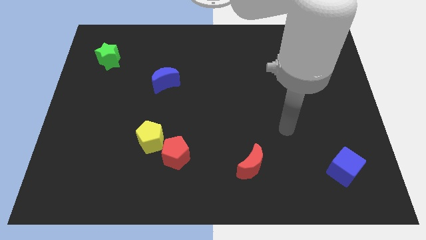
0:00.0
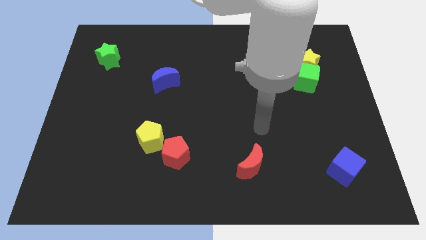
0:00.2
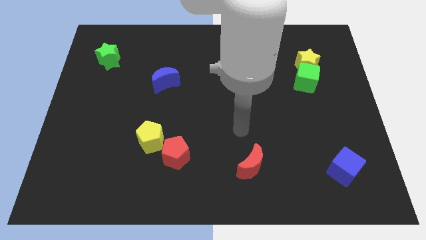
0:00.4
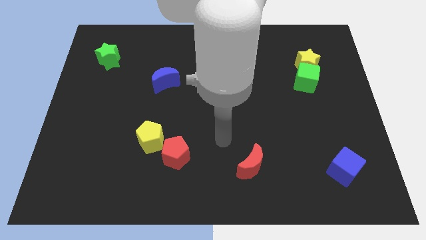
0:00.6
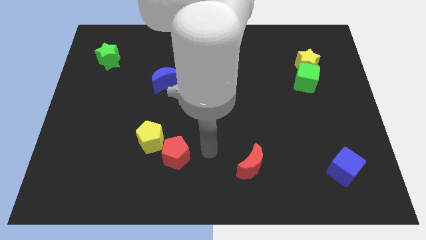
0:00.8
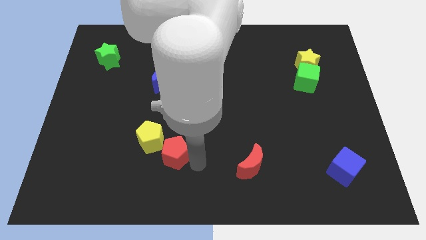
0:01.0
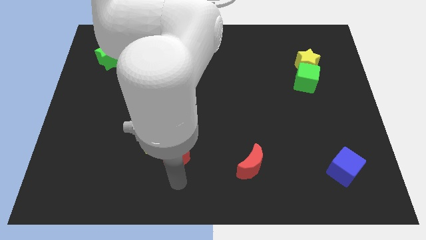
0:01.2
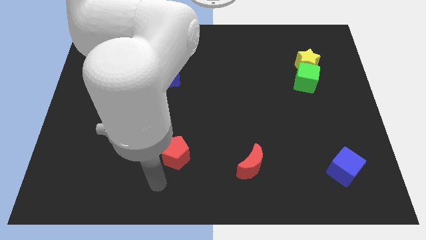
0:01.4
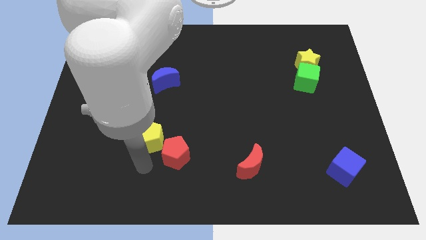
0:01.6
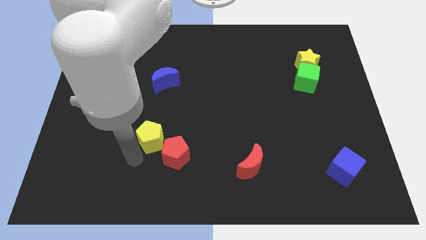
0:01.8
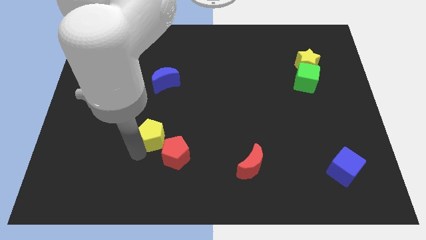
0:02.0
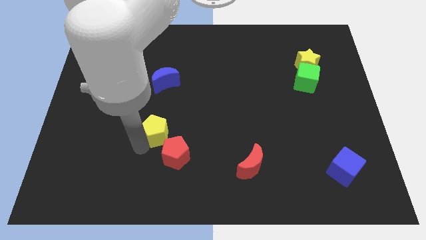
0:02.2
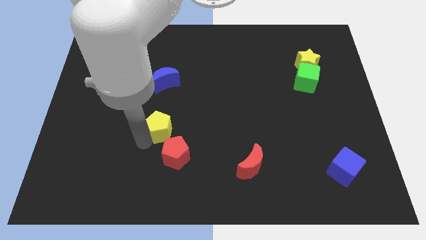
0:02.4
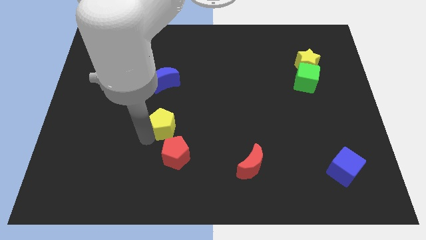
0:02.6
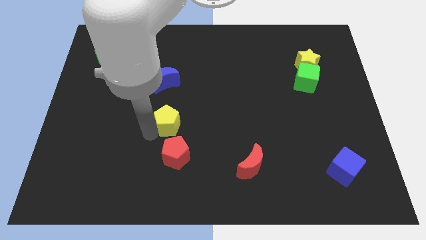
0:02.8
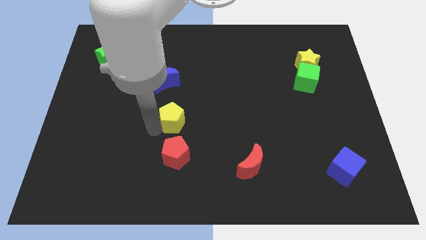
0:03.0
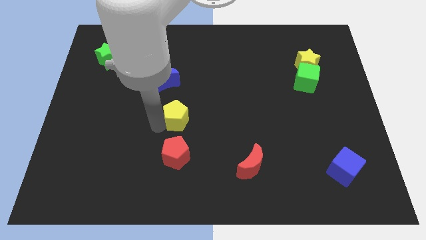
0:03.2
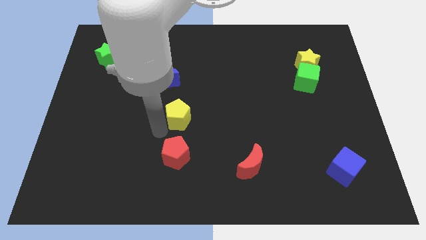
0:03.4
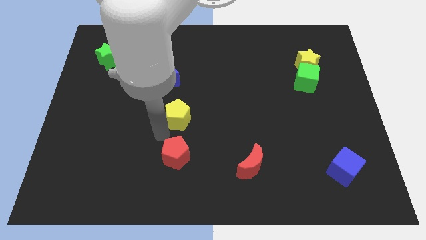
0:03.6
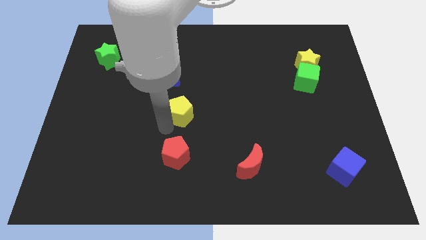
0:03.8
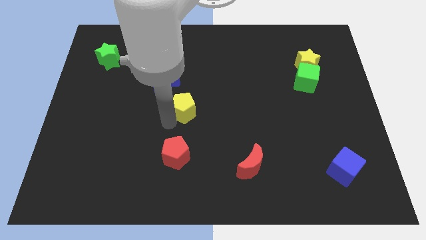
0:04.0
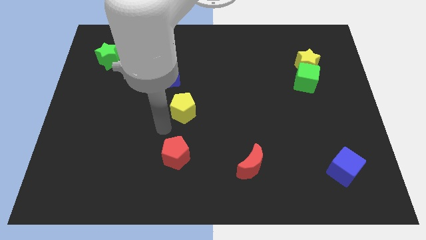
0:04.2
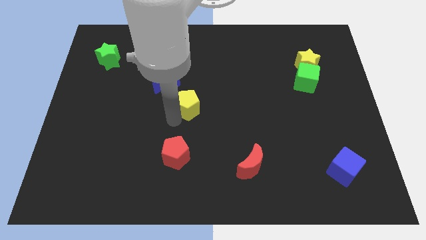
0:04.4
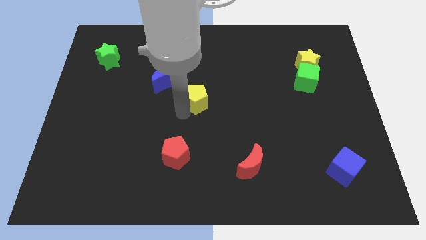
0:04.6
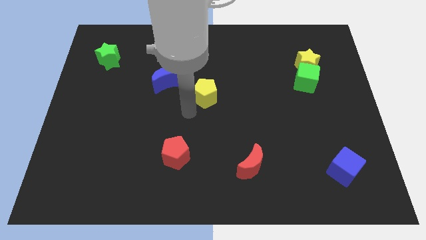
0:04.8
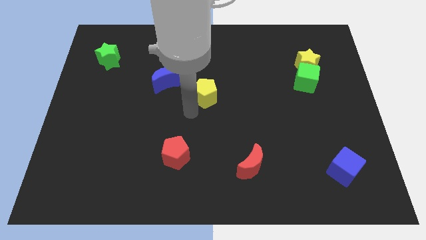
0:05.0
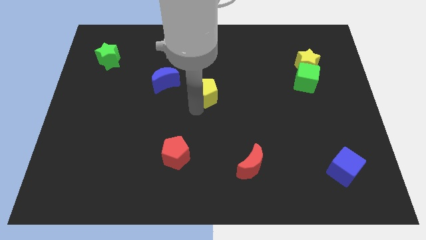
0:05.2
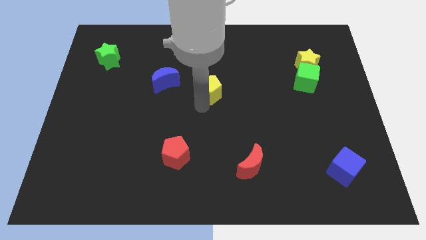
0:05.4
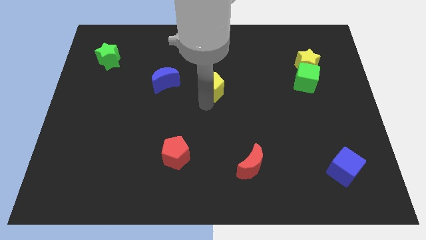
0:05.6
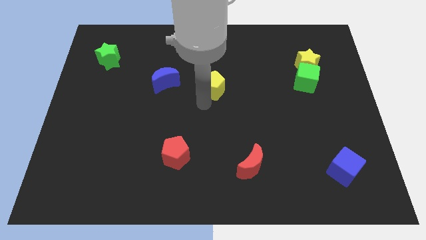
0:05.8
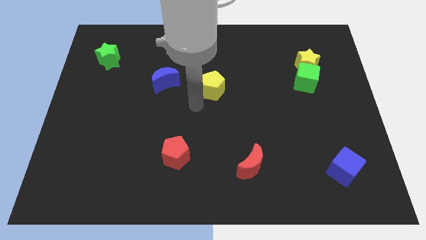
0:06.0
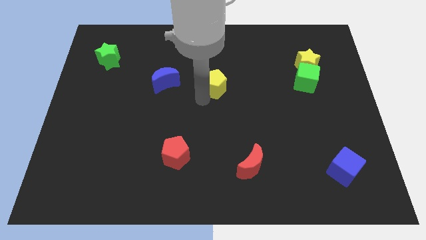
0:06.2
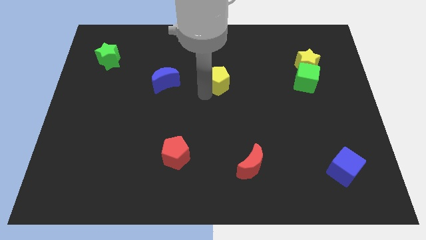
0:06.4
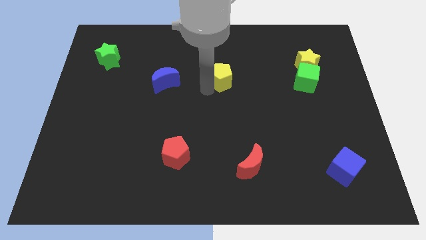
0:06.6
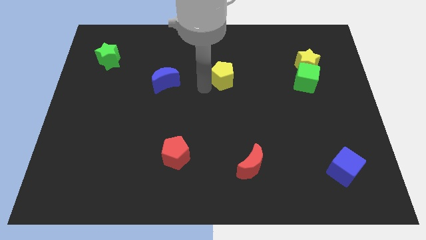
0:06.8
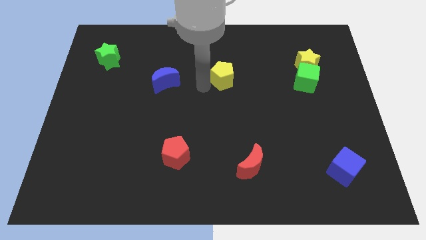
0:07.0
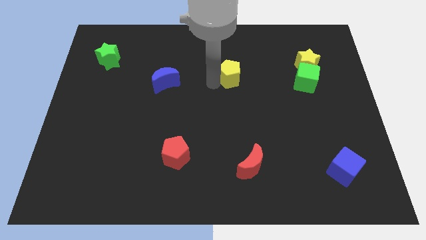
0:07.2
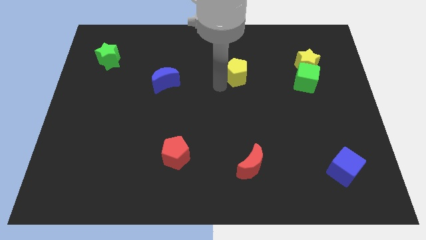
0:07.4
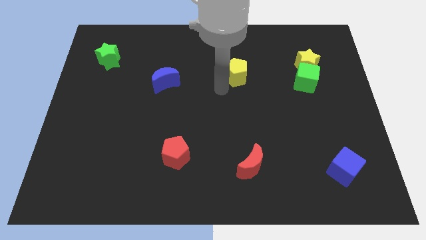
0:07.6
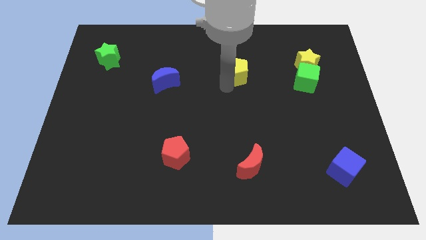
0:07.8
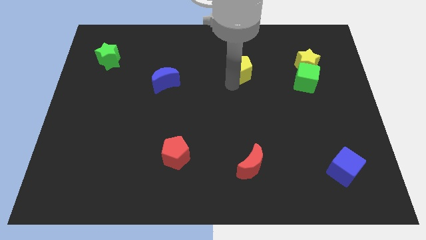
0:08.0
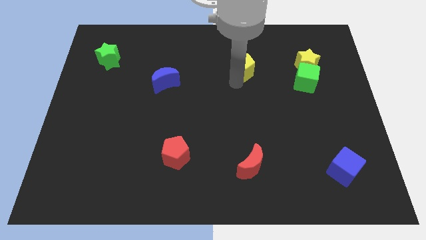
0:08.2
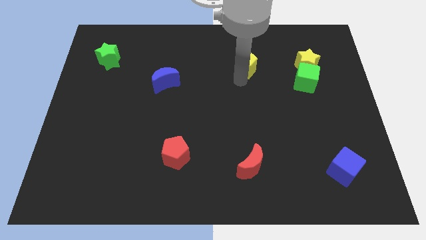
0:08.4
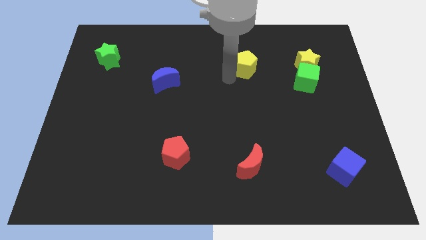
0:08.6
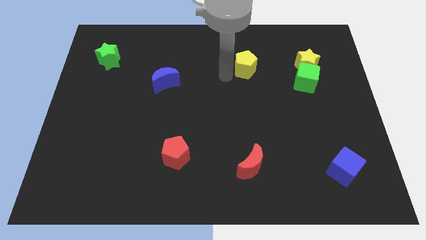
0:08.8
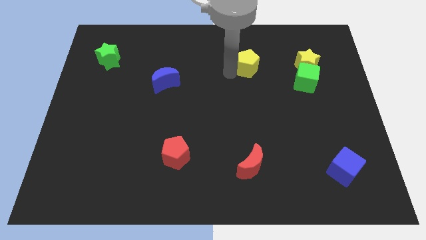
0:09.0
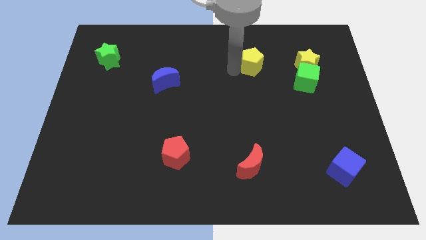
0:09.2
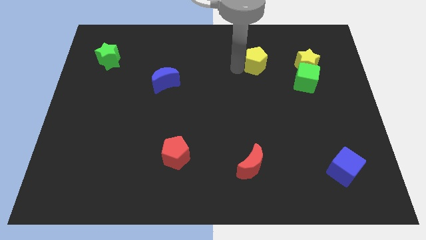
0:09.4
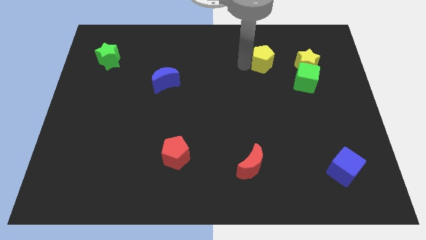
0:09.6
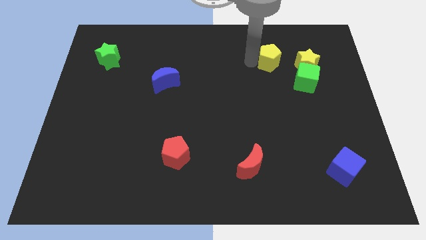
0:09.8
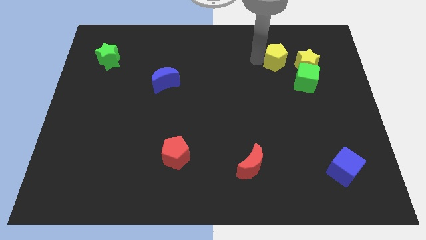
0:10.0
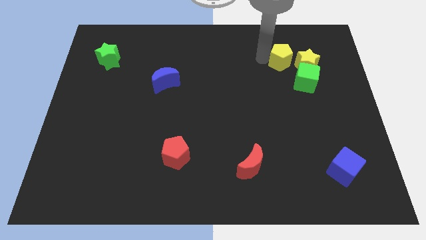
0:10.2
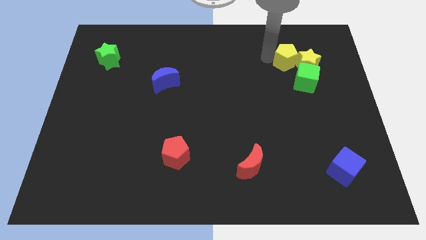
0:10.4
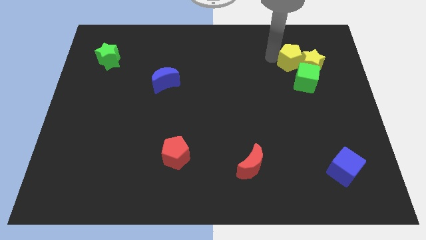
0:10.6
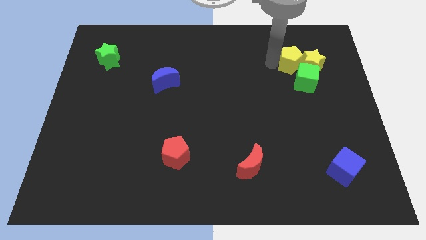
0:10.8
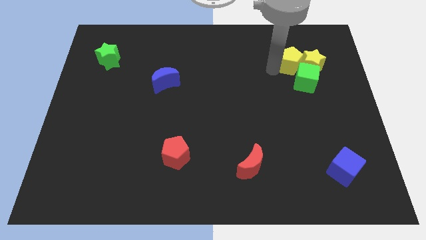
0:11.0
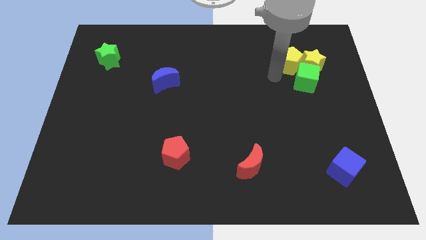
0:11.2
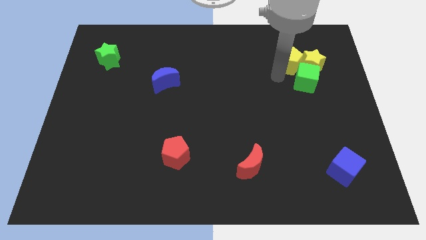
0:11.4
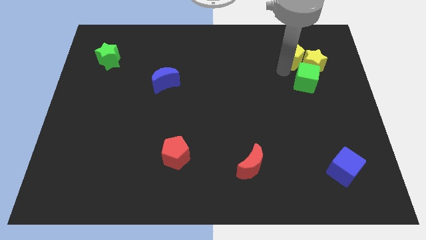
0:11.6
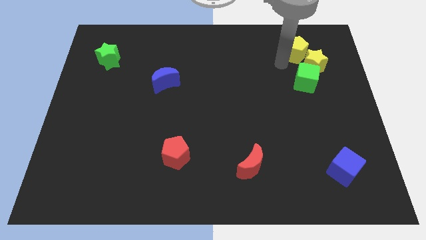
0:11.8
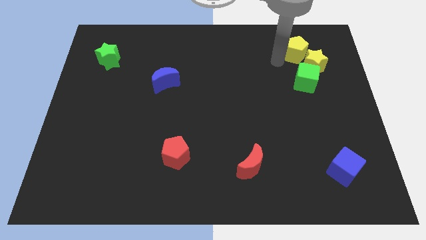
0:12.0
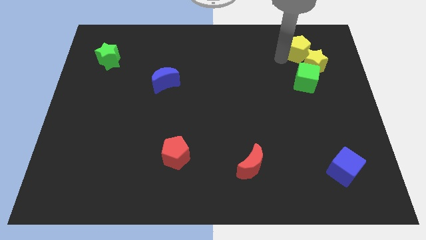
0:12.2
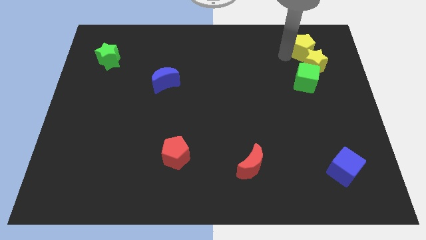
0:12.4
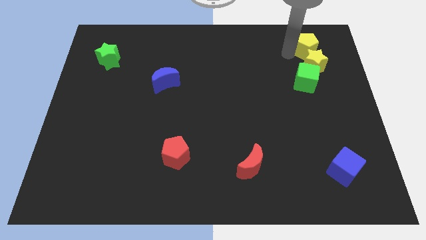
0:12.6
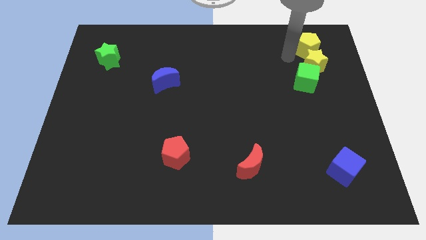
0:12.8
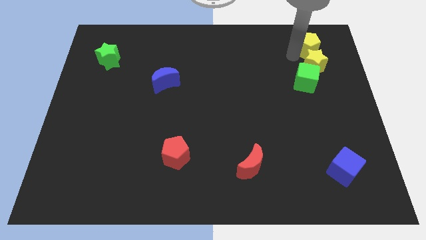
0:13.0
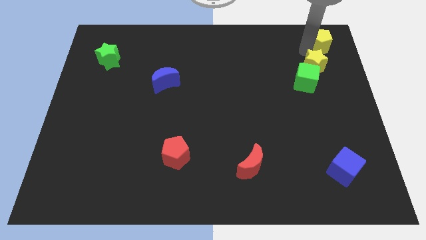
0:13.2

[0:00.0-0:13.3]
push the yellow pentagon to the top right corner
